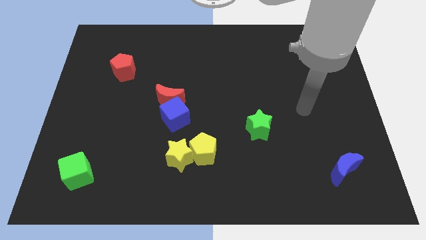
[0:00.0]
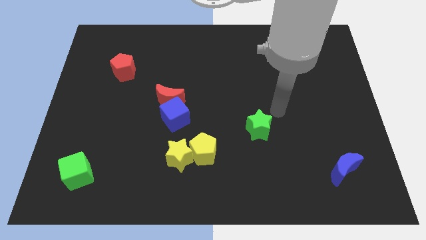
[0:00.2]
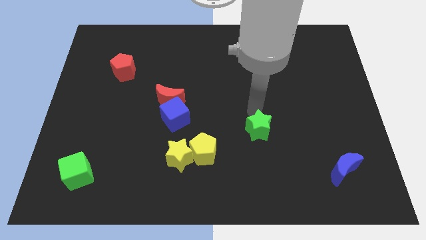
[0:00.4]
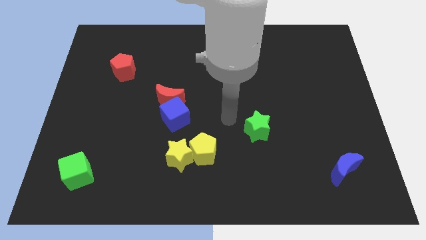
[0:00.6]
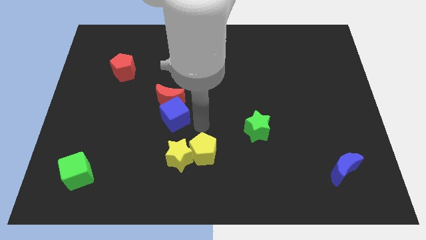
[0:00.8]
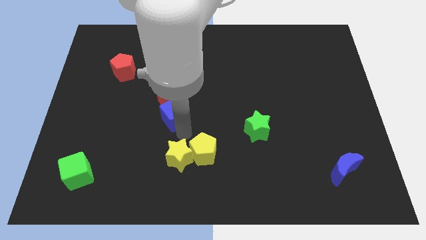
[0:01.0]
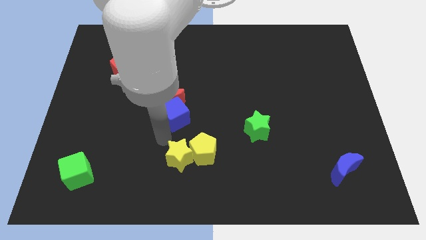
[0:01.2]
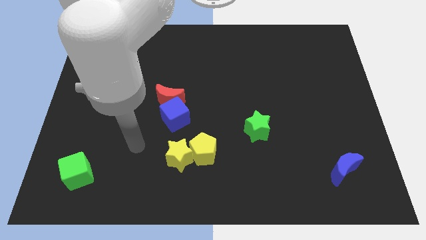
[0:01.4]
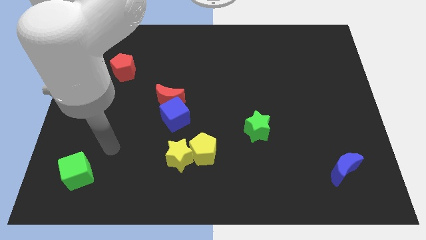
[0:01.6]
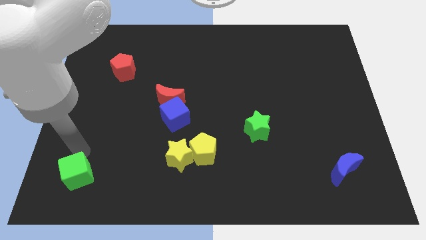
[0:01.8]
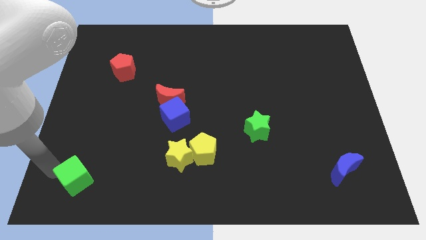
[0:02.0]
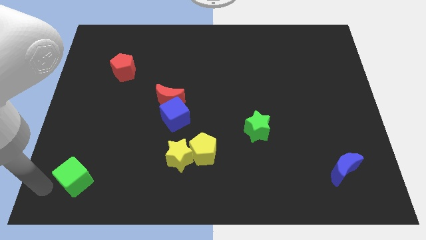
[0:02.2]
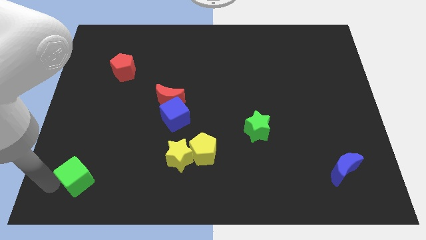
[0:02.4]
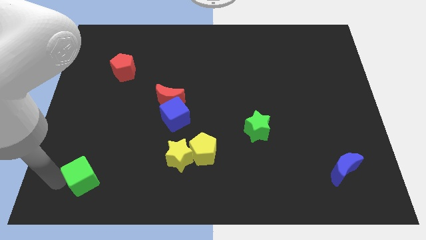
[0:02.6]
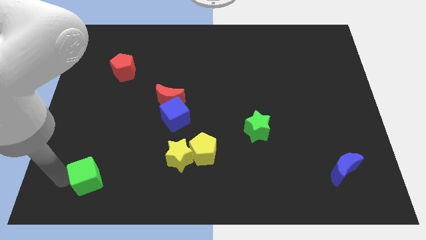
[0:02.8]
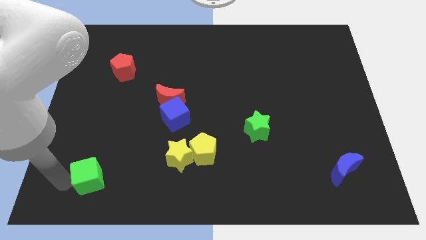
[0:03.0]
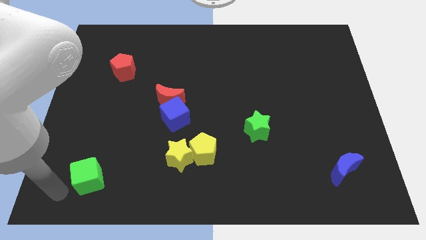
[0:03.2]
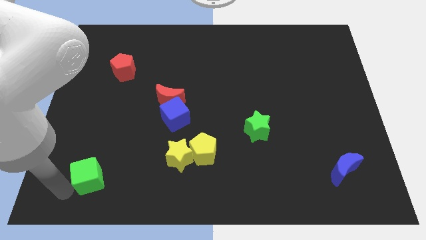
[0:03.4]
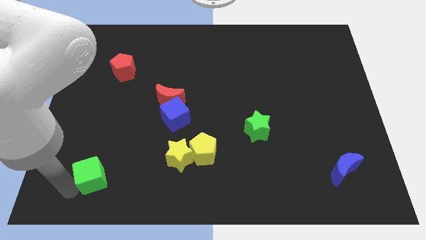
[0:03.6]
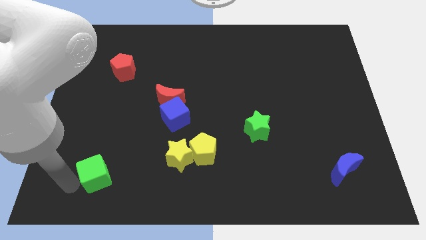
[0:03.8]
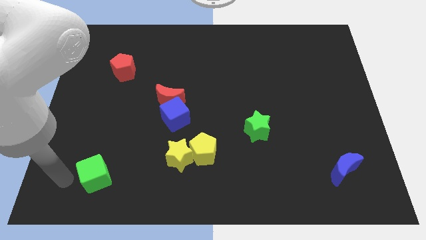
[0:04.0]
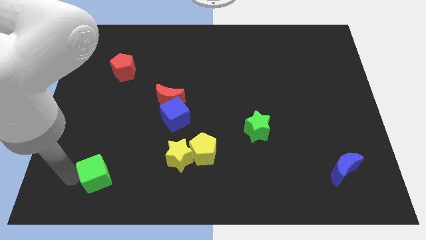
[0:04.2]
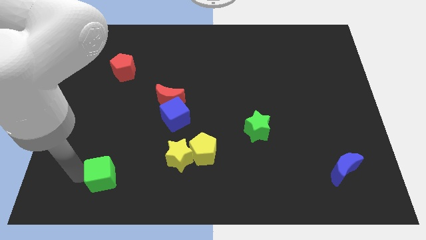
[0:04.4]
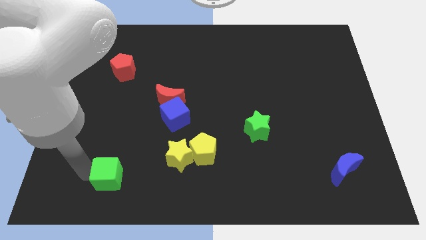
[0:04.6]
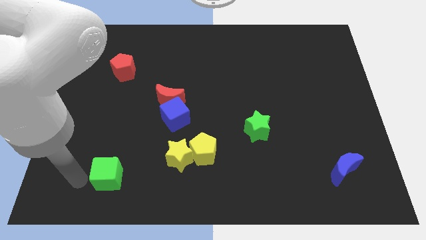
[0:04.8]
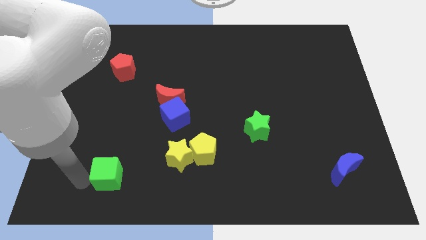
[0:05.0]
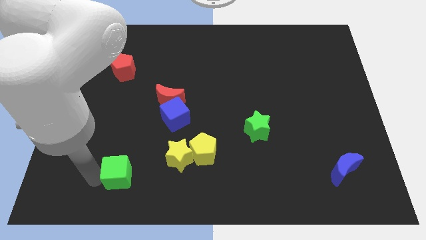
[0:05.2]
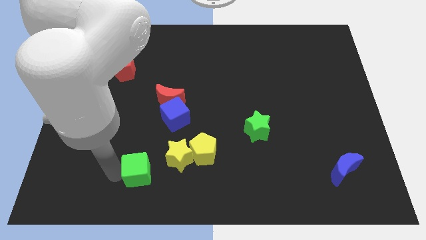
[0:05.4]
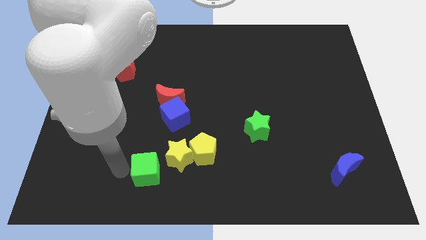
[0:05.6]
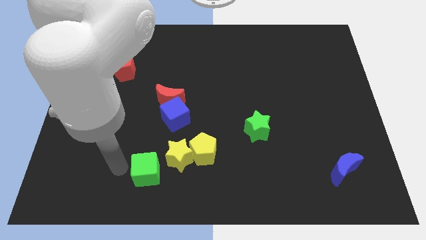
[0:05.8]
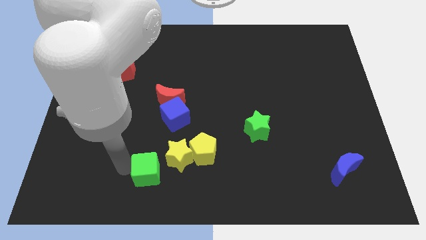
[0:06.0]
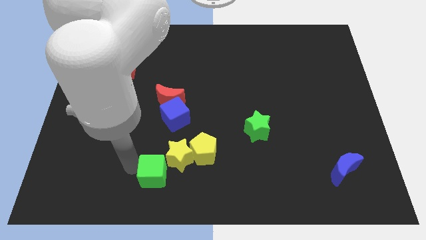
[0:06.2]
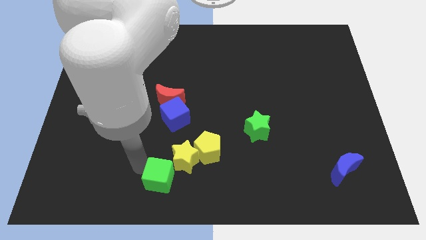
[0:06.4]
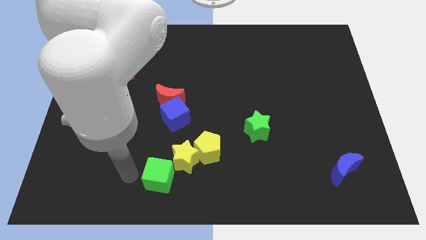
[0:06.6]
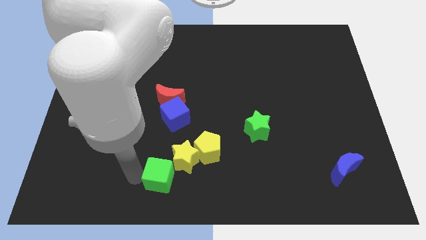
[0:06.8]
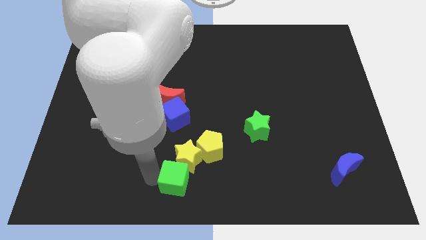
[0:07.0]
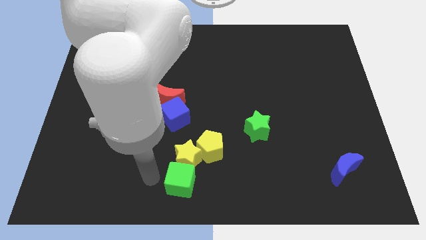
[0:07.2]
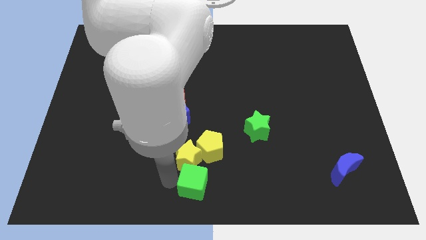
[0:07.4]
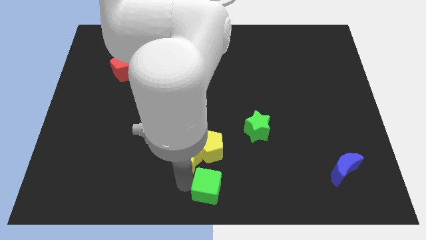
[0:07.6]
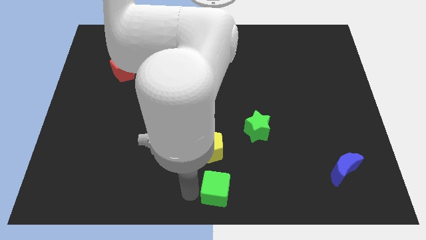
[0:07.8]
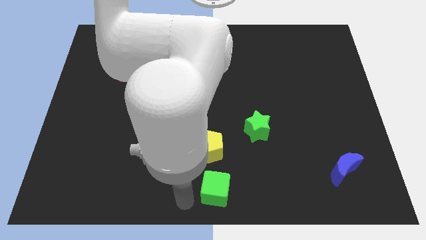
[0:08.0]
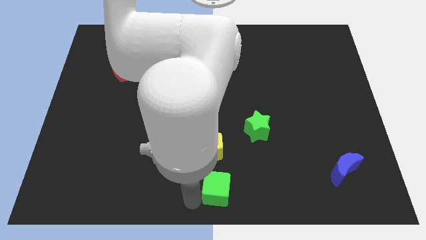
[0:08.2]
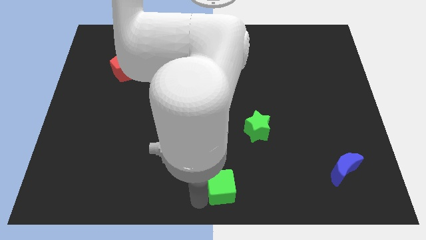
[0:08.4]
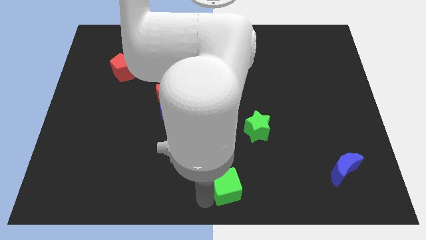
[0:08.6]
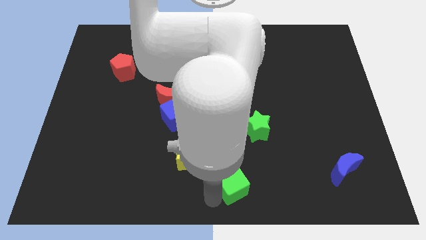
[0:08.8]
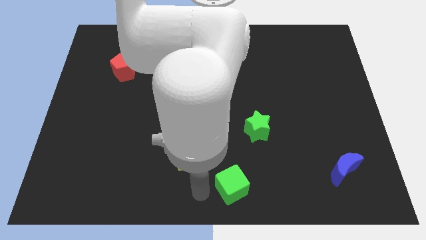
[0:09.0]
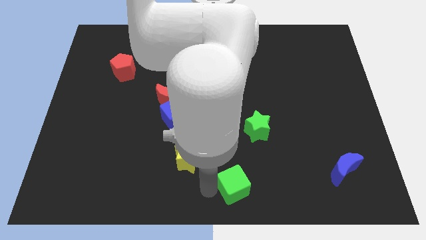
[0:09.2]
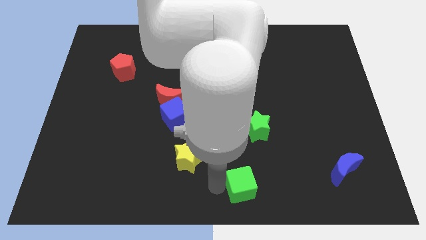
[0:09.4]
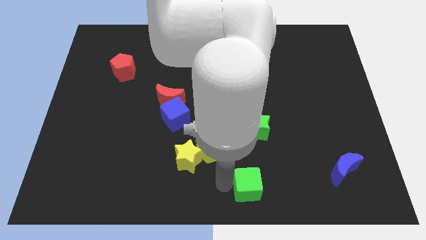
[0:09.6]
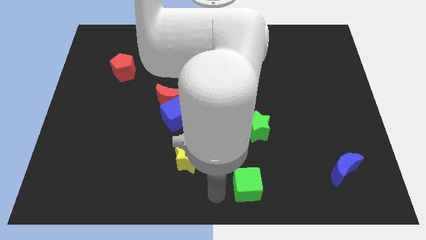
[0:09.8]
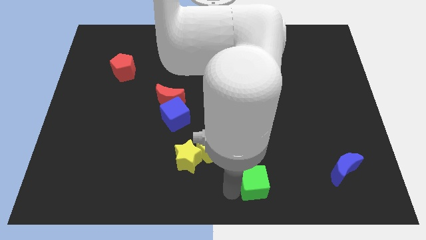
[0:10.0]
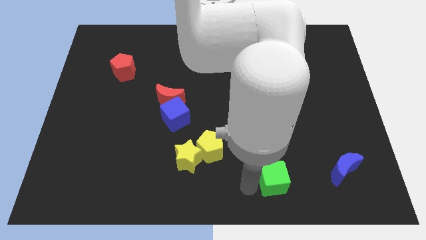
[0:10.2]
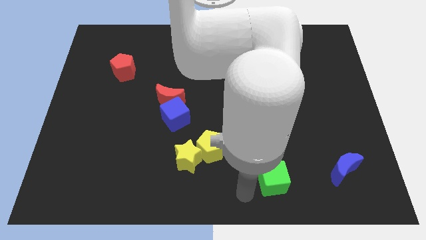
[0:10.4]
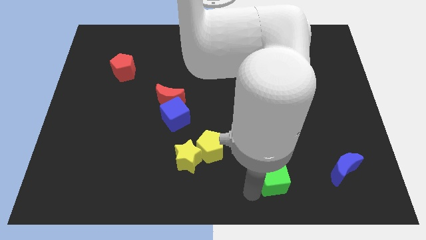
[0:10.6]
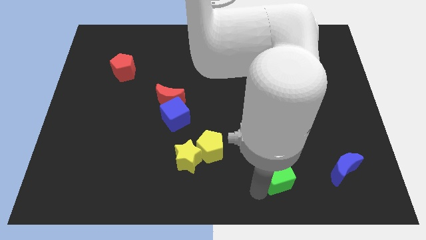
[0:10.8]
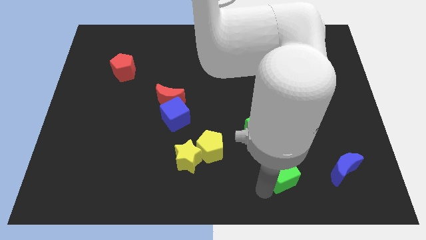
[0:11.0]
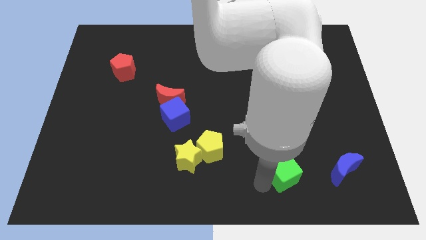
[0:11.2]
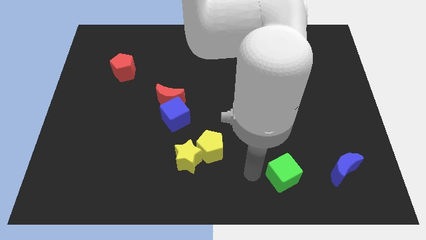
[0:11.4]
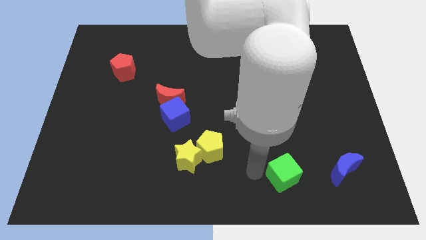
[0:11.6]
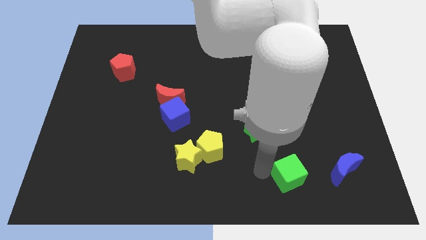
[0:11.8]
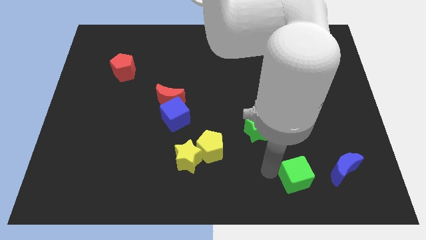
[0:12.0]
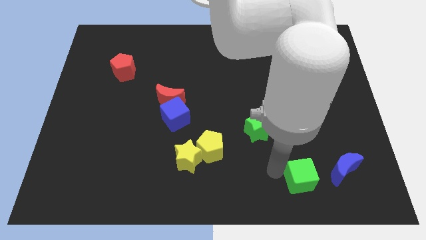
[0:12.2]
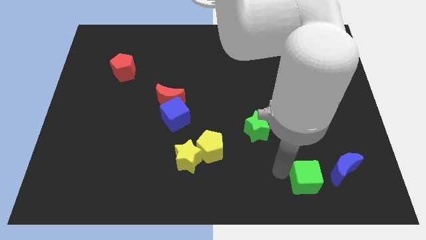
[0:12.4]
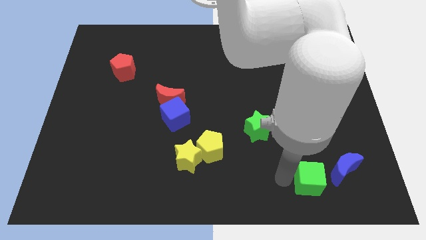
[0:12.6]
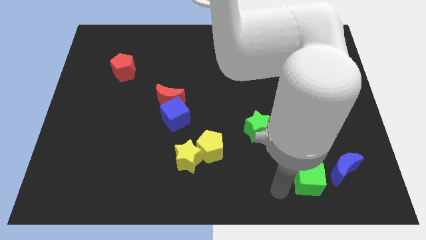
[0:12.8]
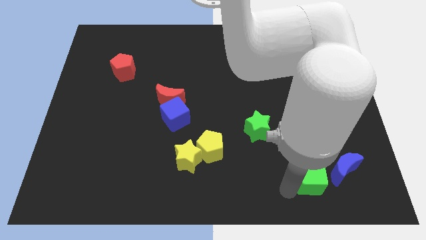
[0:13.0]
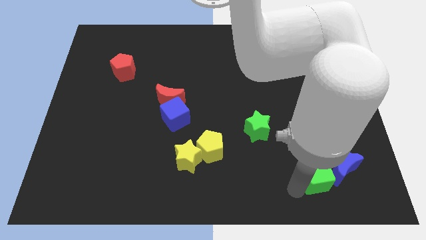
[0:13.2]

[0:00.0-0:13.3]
push the green cube next to the blue moon
